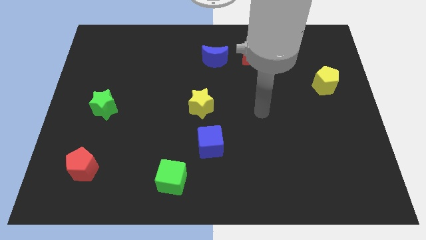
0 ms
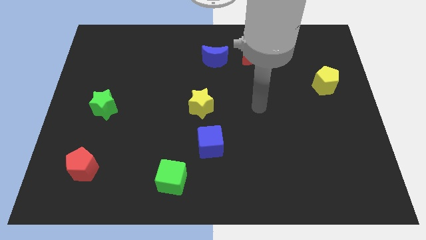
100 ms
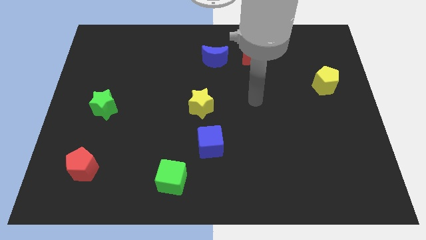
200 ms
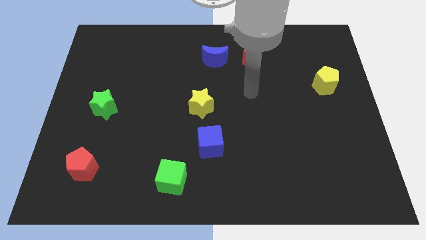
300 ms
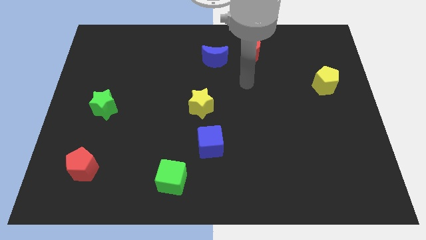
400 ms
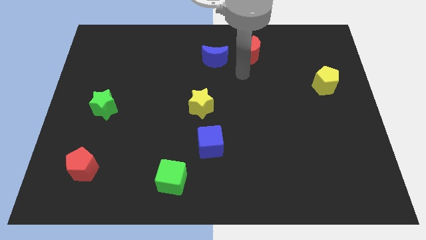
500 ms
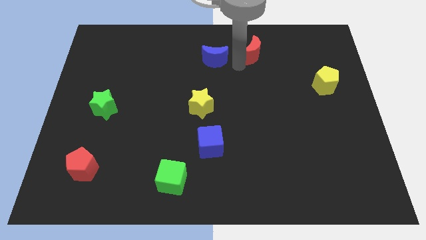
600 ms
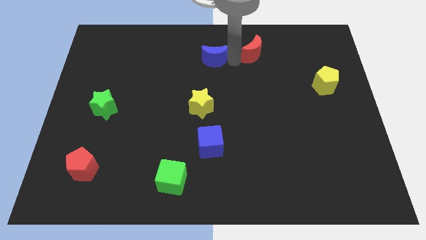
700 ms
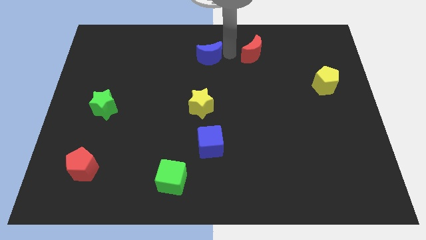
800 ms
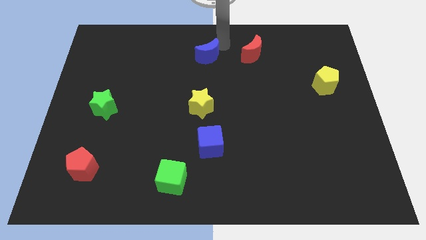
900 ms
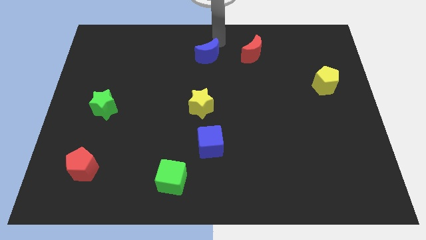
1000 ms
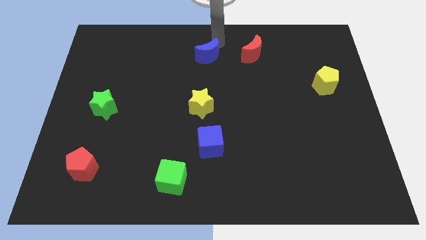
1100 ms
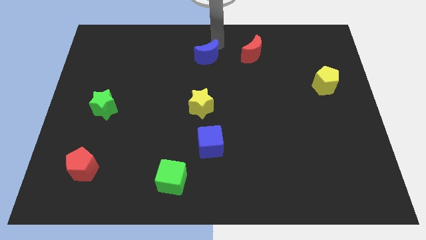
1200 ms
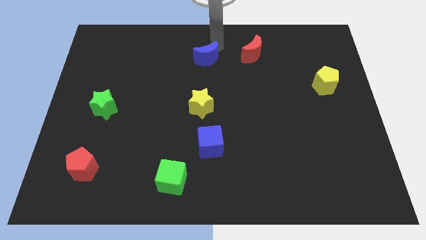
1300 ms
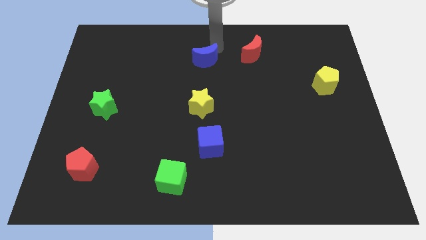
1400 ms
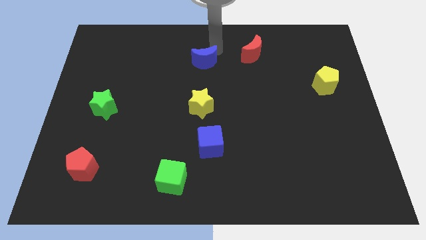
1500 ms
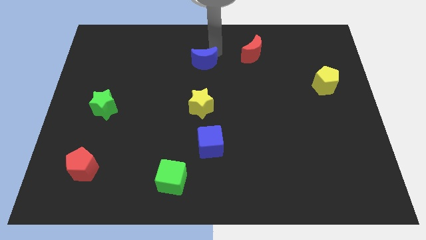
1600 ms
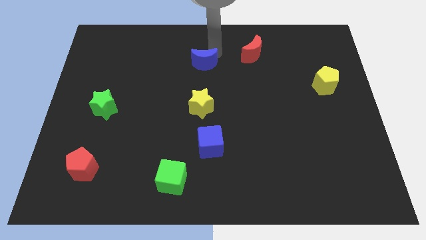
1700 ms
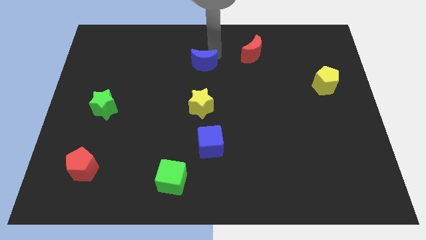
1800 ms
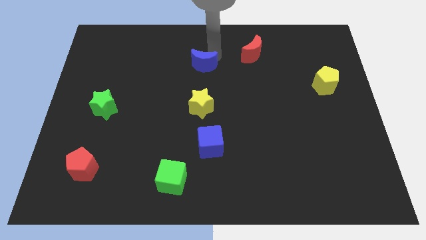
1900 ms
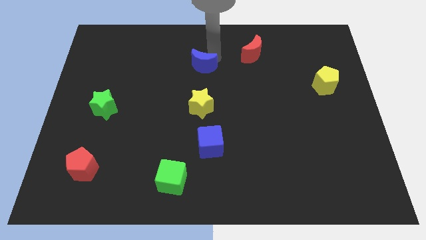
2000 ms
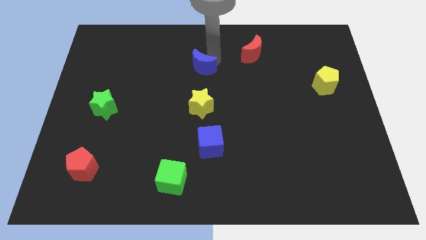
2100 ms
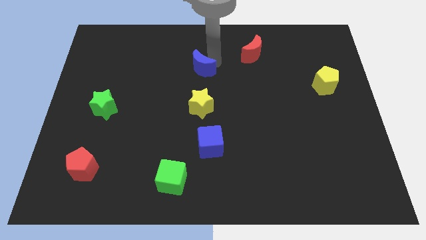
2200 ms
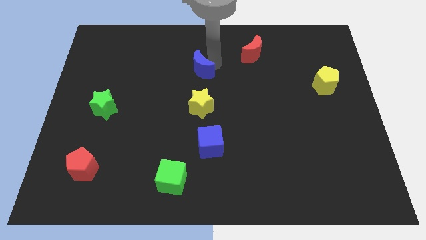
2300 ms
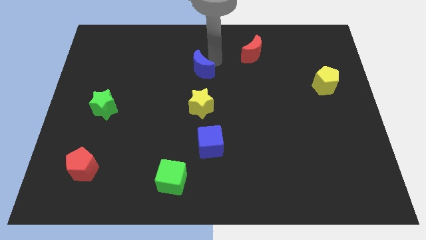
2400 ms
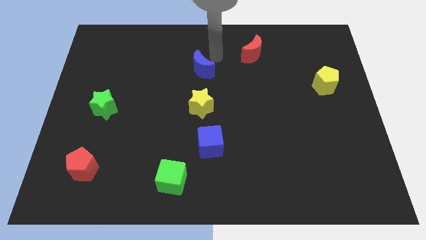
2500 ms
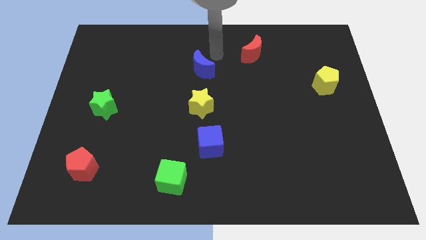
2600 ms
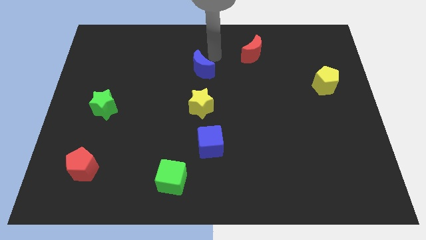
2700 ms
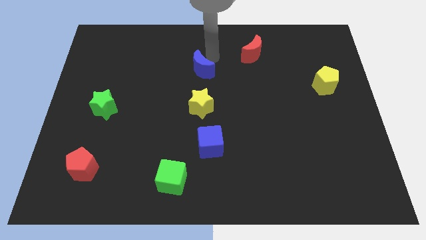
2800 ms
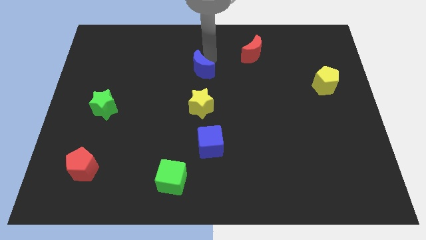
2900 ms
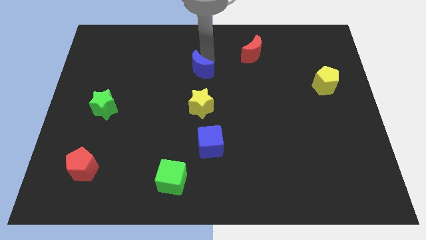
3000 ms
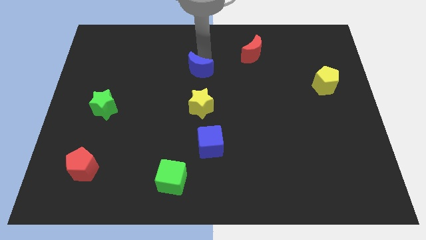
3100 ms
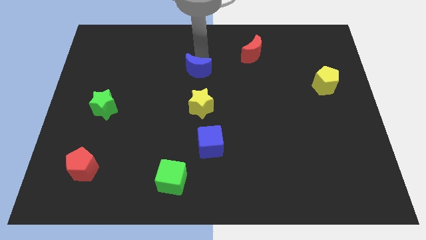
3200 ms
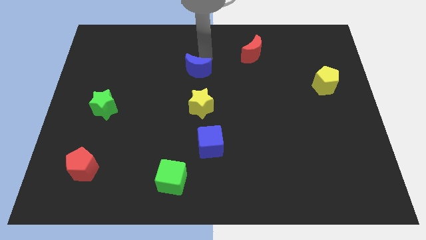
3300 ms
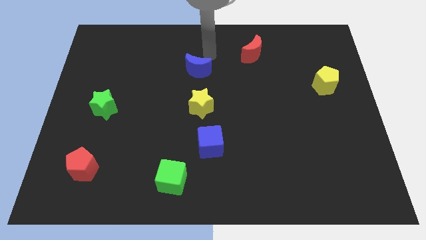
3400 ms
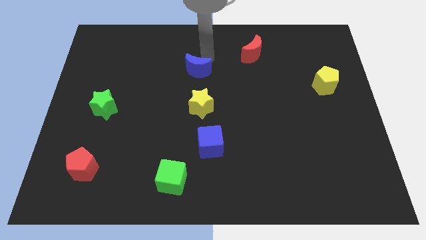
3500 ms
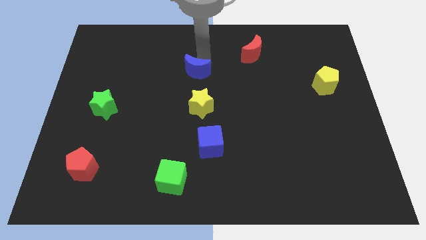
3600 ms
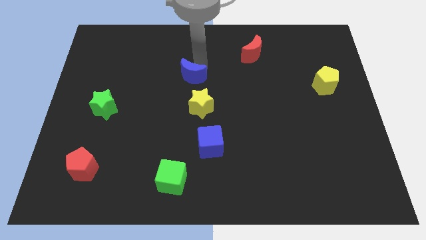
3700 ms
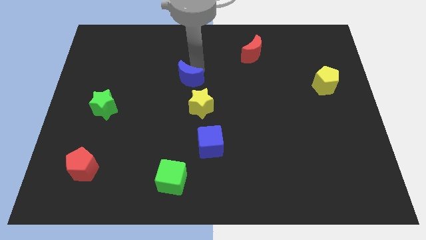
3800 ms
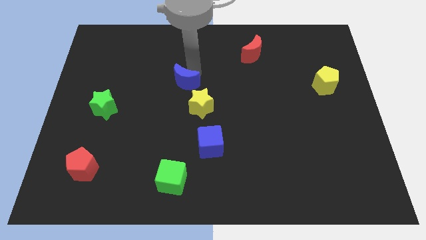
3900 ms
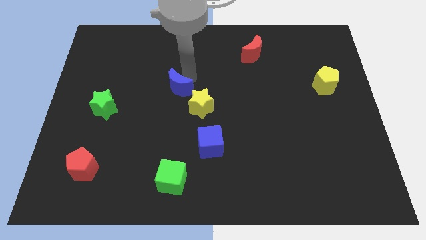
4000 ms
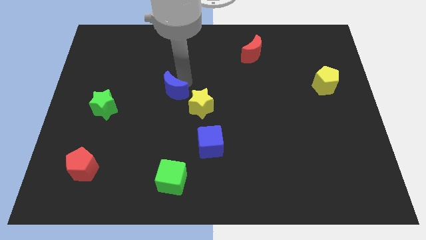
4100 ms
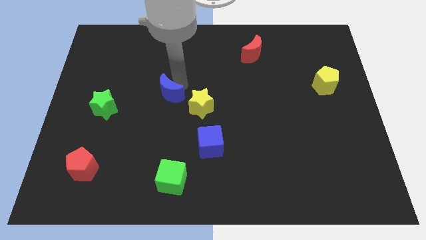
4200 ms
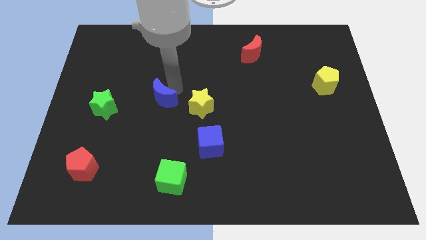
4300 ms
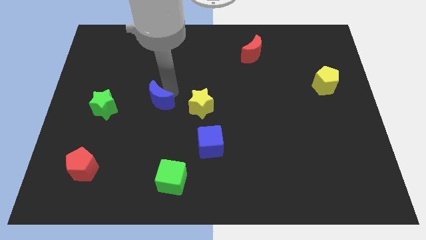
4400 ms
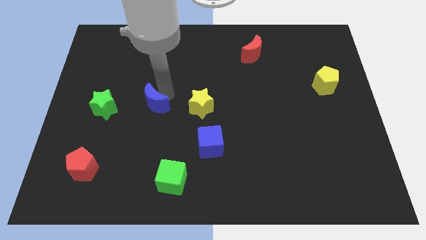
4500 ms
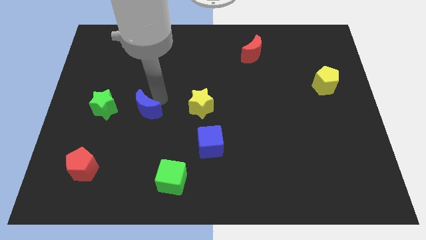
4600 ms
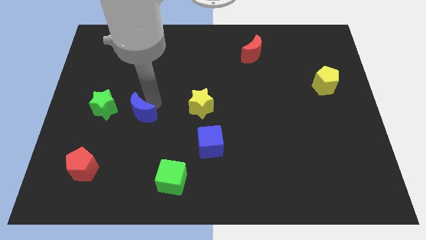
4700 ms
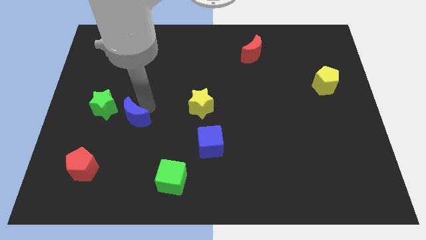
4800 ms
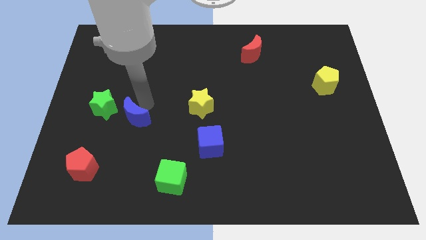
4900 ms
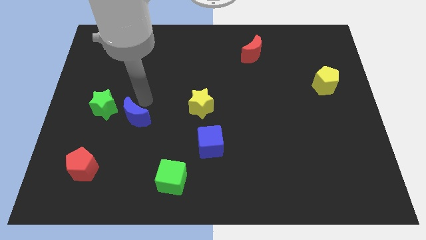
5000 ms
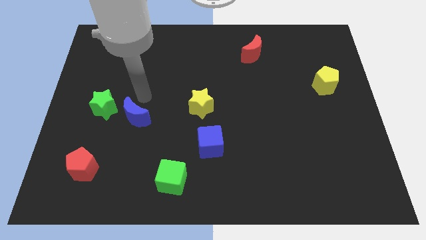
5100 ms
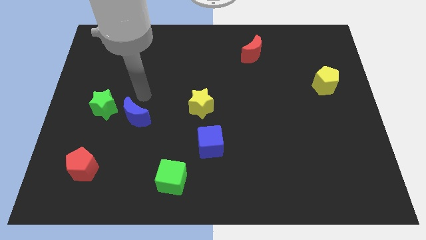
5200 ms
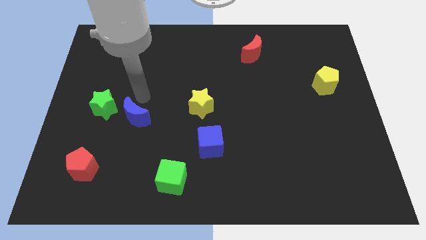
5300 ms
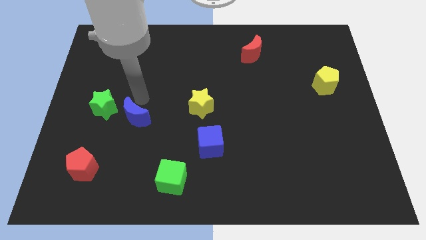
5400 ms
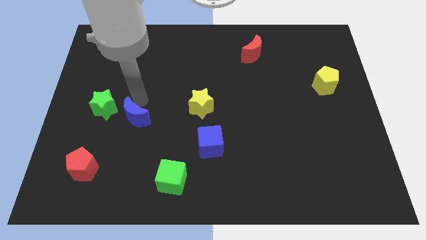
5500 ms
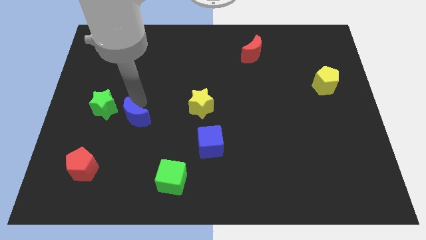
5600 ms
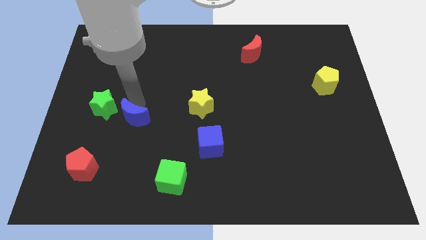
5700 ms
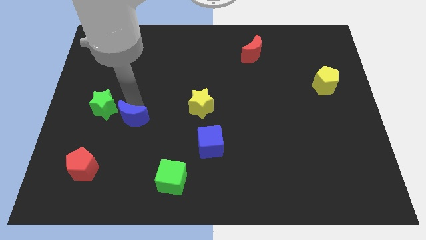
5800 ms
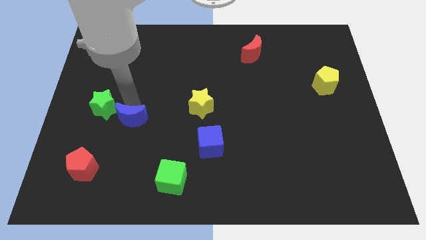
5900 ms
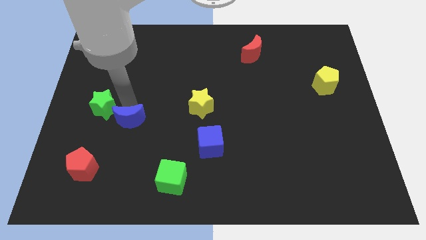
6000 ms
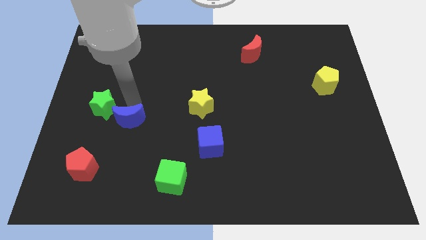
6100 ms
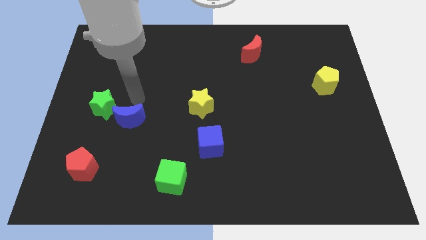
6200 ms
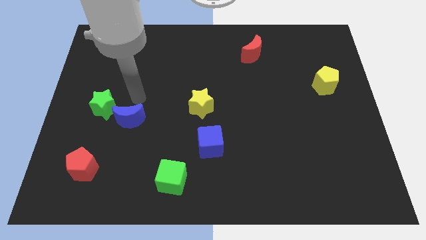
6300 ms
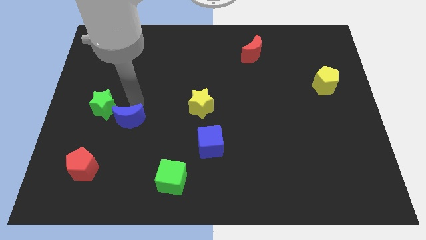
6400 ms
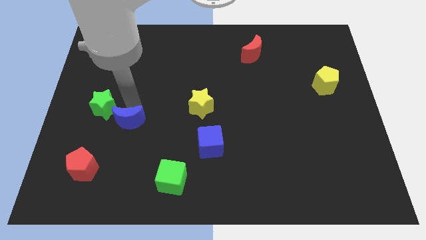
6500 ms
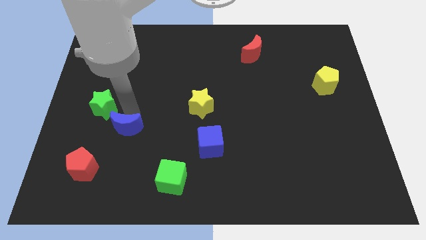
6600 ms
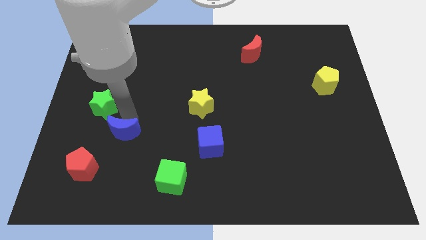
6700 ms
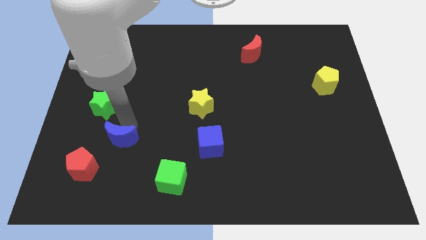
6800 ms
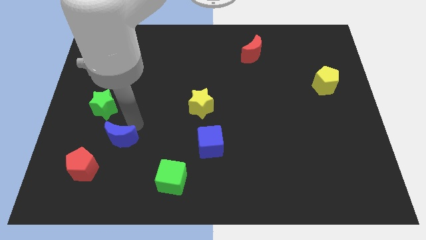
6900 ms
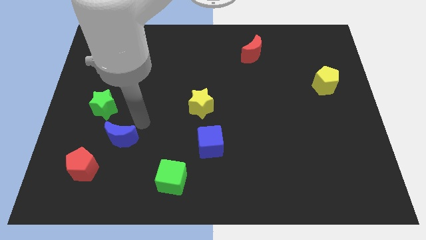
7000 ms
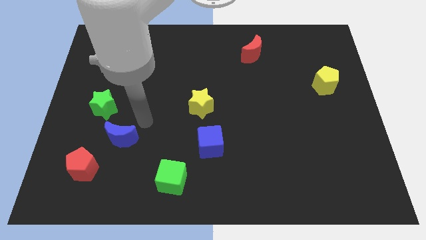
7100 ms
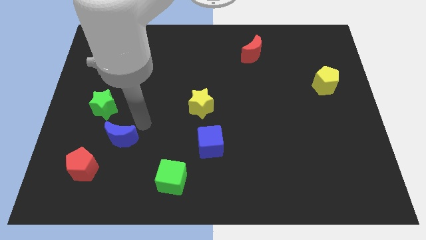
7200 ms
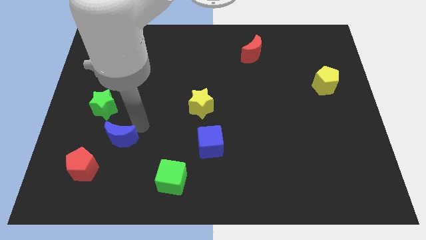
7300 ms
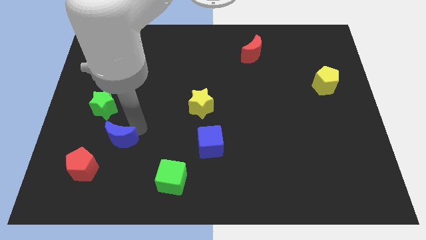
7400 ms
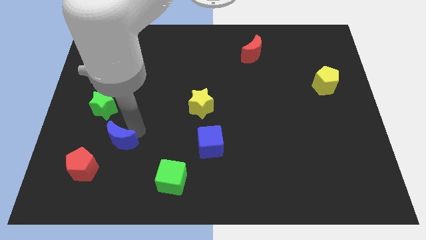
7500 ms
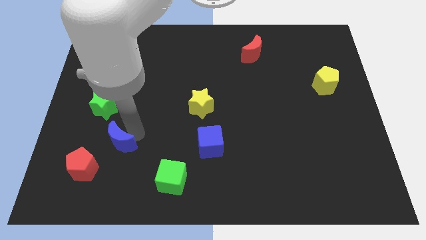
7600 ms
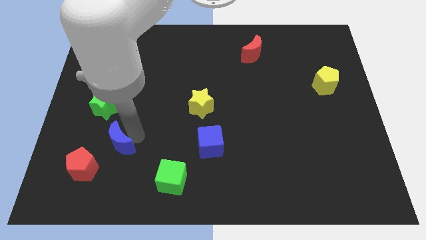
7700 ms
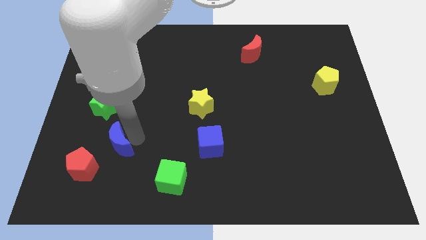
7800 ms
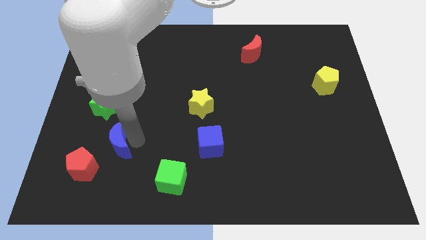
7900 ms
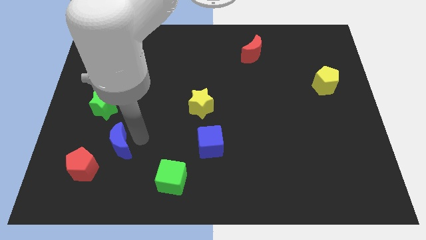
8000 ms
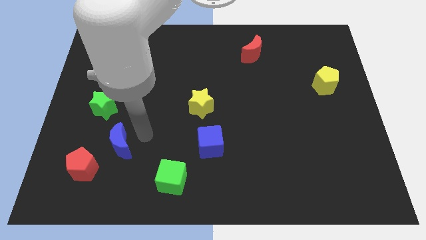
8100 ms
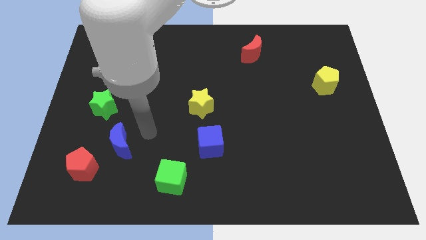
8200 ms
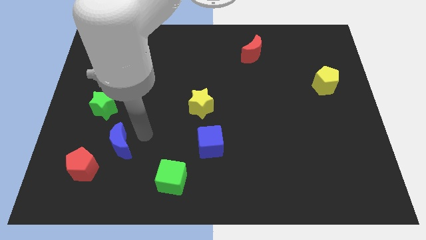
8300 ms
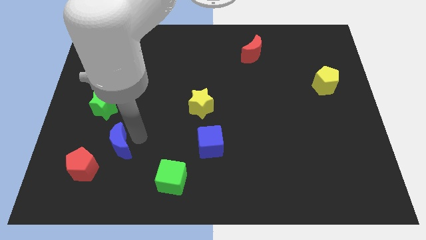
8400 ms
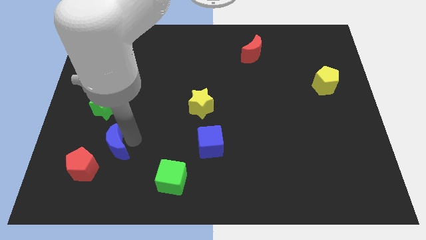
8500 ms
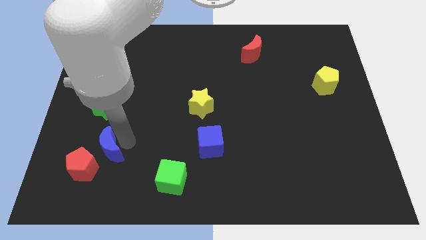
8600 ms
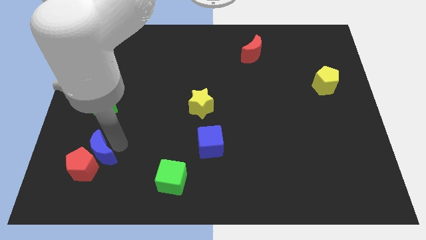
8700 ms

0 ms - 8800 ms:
put the blue moon next to the red pentagon
